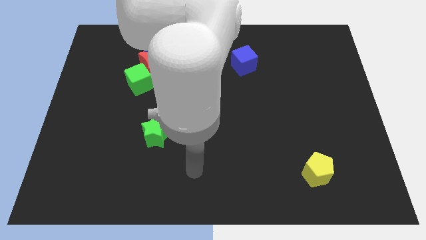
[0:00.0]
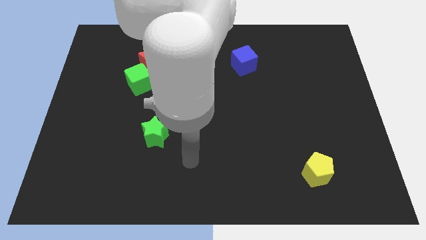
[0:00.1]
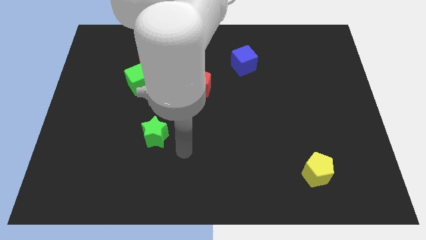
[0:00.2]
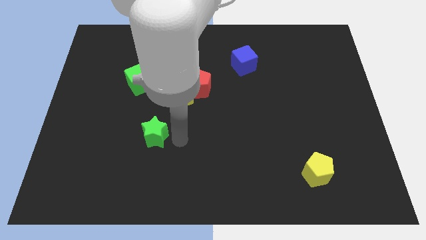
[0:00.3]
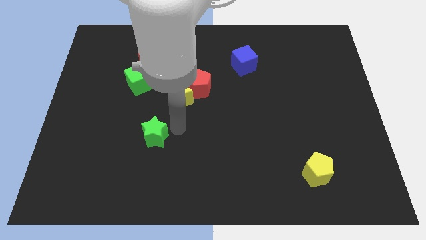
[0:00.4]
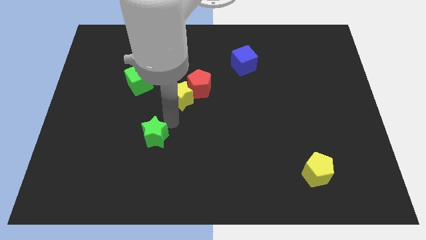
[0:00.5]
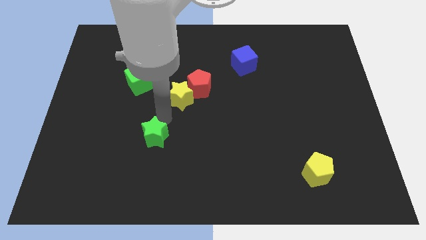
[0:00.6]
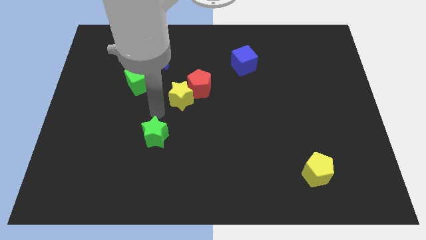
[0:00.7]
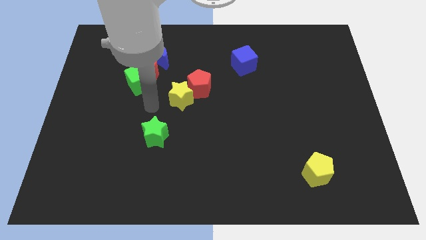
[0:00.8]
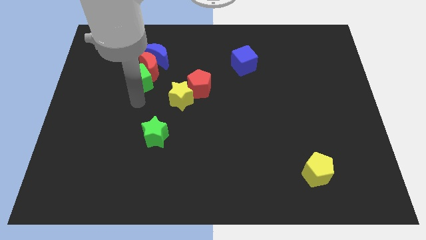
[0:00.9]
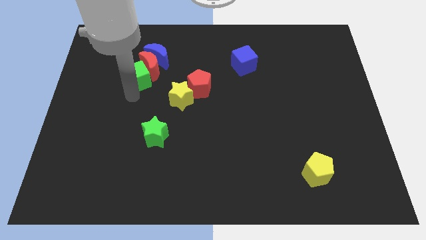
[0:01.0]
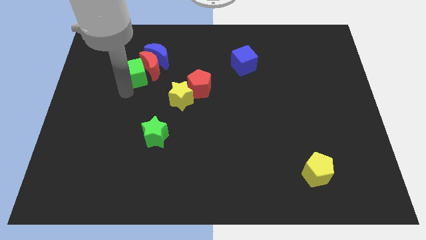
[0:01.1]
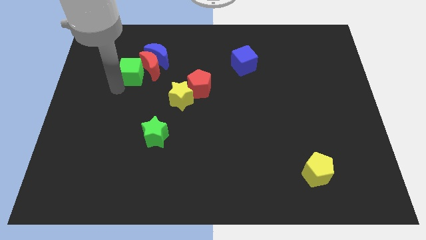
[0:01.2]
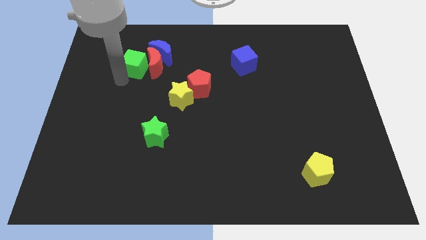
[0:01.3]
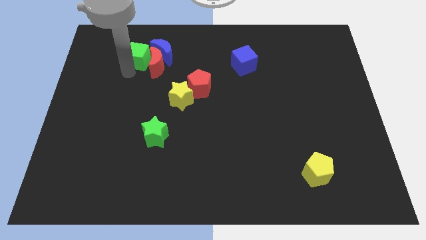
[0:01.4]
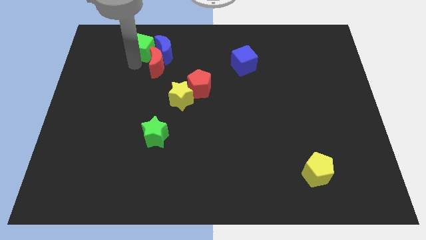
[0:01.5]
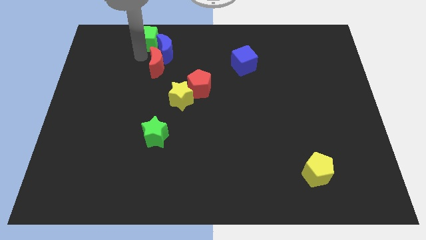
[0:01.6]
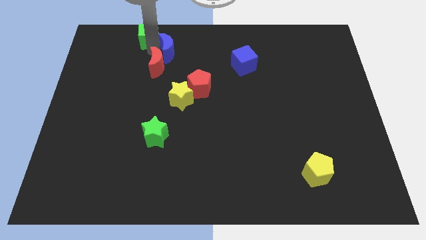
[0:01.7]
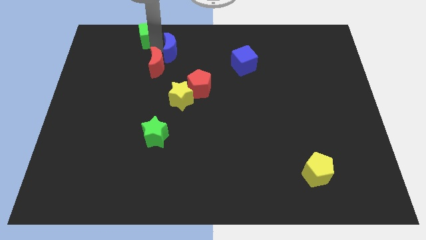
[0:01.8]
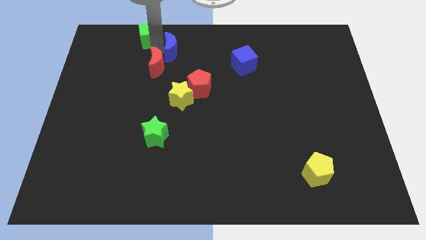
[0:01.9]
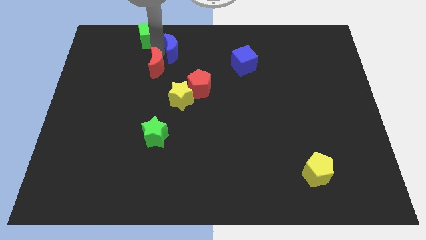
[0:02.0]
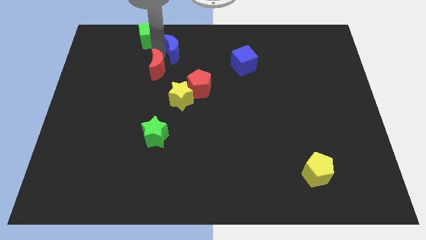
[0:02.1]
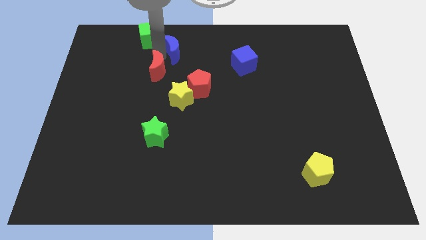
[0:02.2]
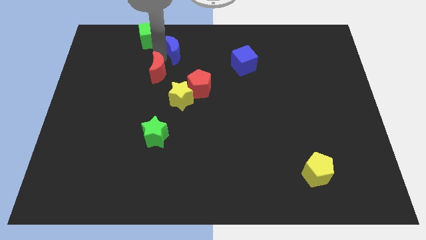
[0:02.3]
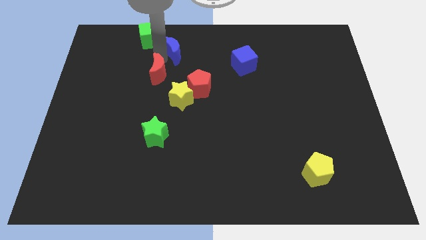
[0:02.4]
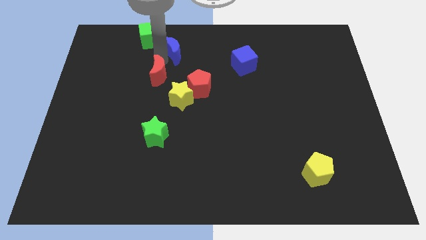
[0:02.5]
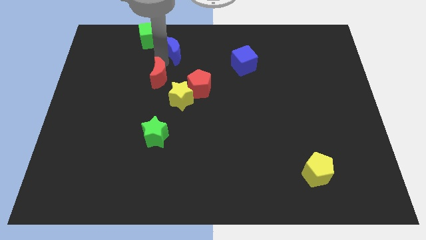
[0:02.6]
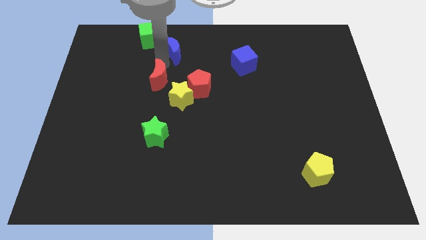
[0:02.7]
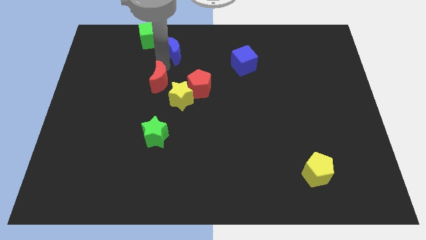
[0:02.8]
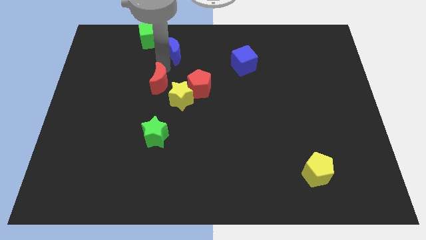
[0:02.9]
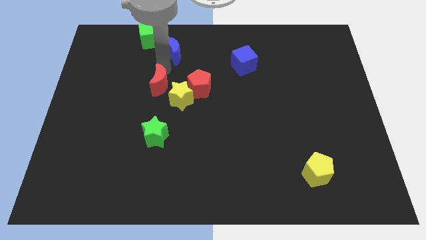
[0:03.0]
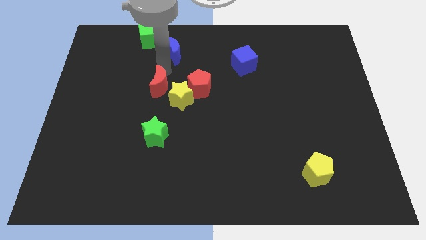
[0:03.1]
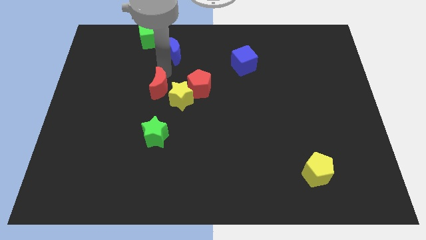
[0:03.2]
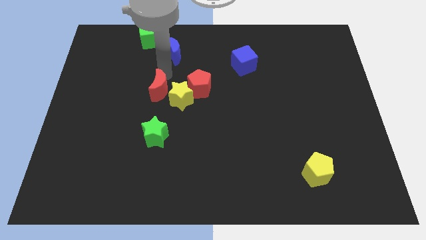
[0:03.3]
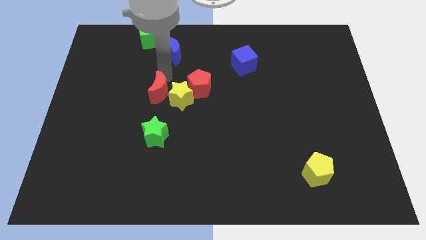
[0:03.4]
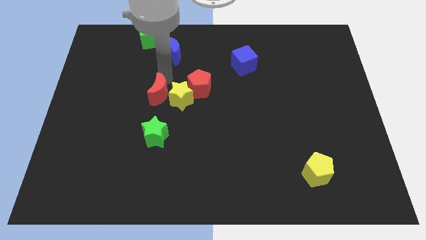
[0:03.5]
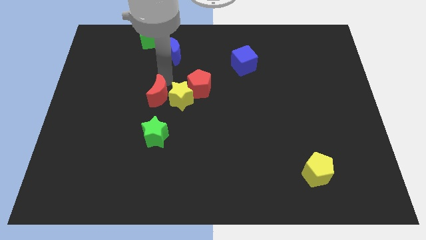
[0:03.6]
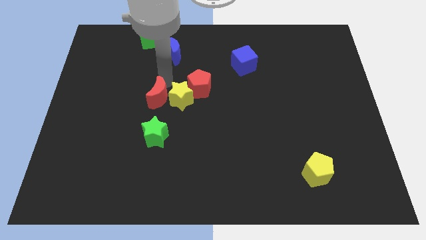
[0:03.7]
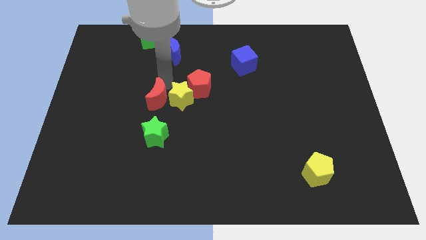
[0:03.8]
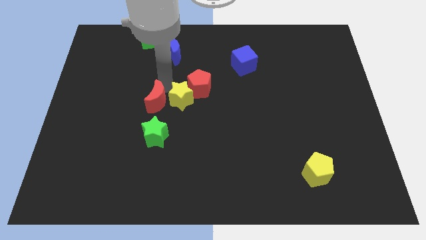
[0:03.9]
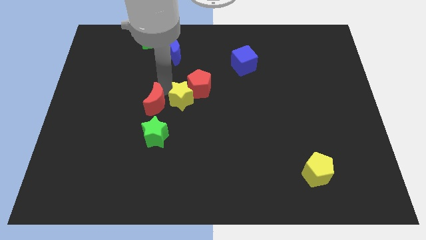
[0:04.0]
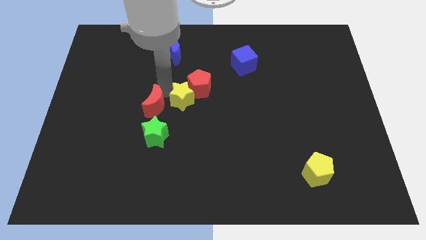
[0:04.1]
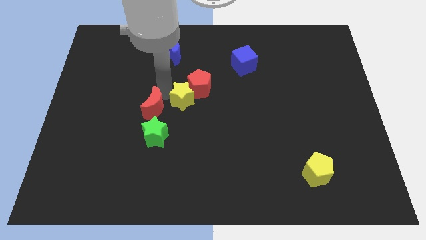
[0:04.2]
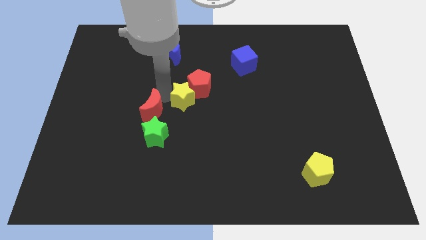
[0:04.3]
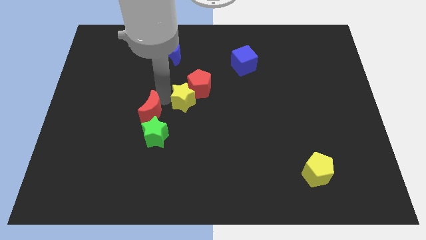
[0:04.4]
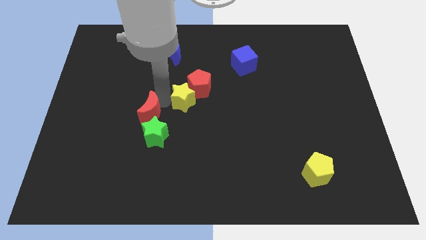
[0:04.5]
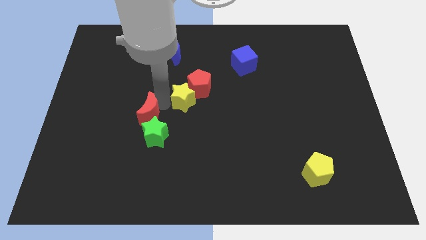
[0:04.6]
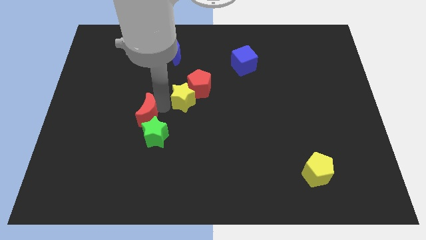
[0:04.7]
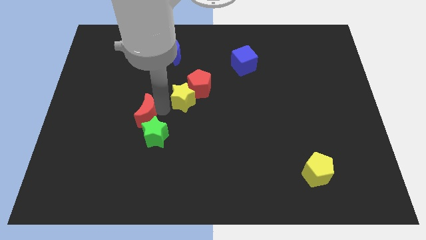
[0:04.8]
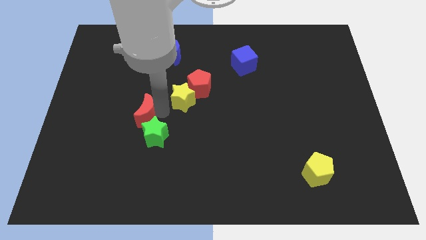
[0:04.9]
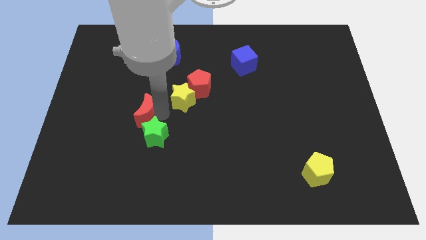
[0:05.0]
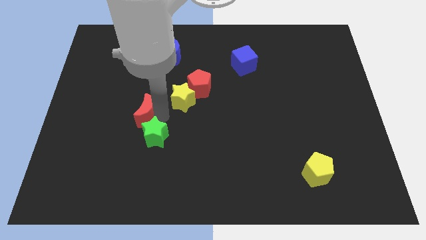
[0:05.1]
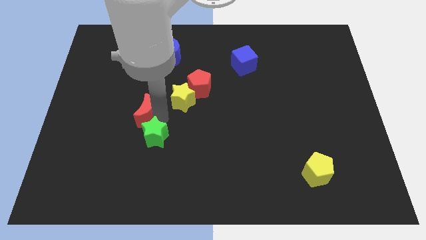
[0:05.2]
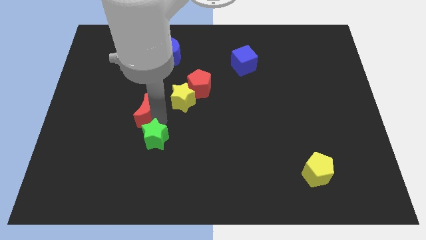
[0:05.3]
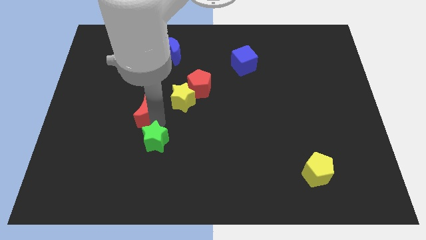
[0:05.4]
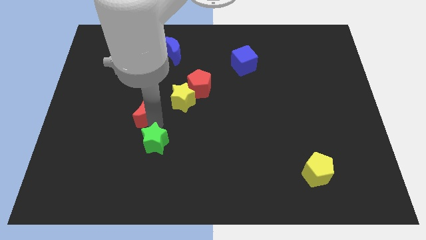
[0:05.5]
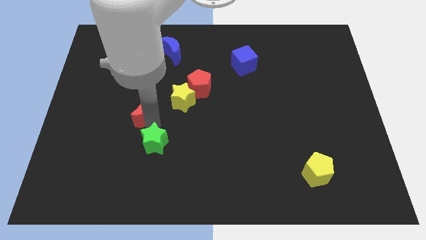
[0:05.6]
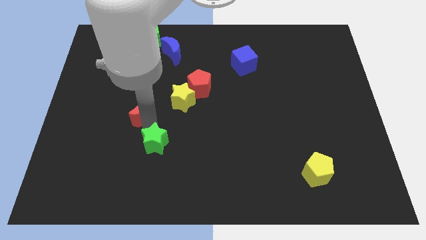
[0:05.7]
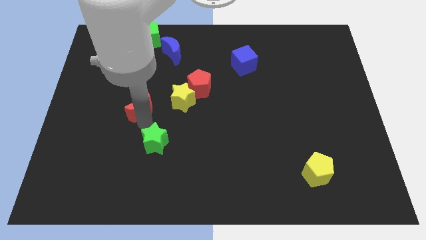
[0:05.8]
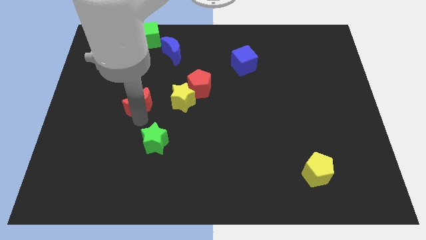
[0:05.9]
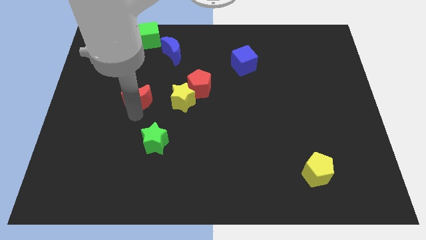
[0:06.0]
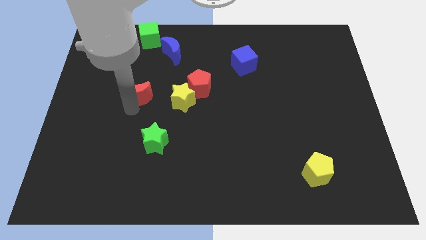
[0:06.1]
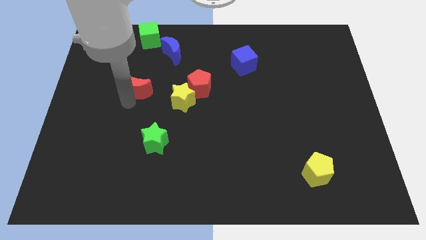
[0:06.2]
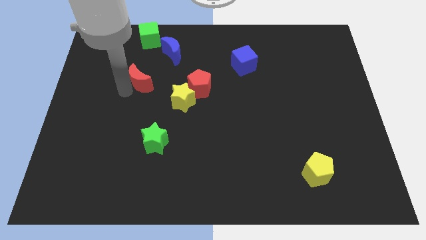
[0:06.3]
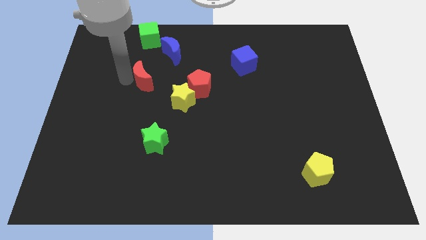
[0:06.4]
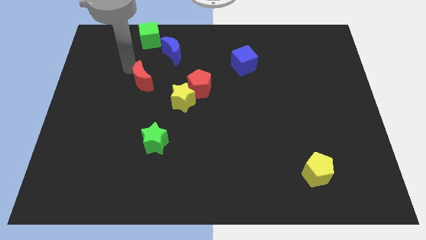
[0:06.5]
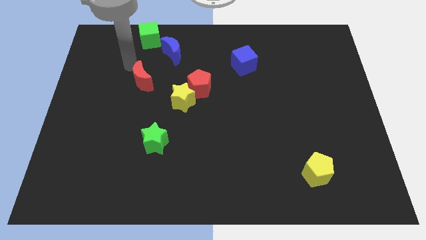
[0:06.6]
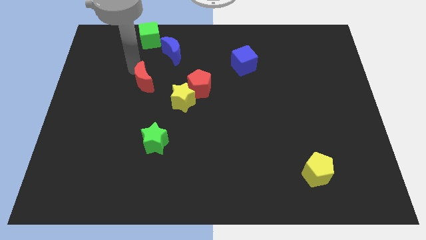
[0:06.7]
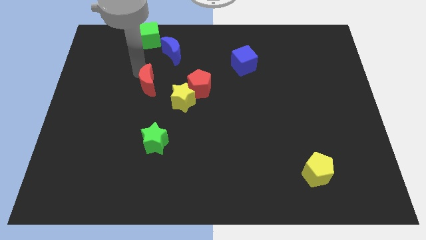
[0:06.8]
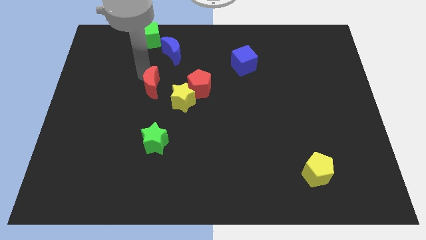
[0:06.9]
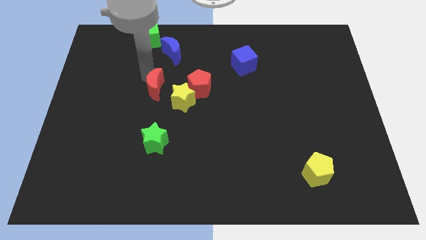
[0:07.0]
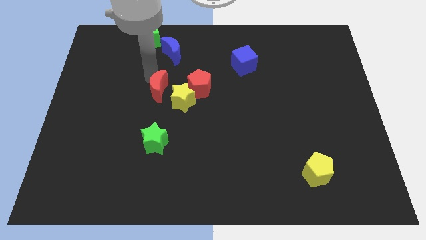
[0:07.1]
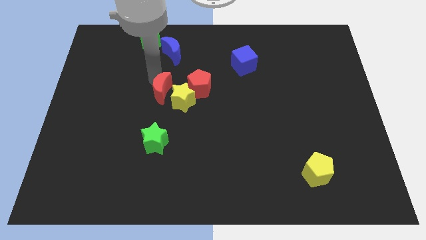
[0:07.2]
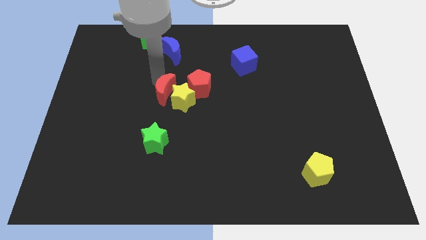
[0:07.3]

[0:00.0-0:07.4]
put the red moon to the center
